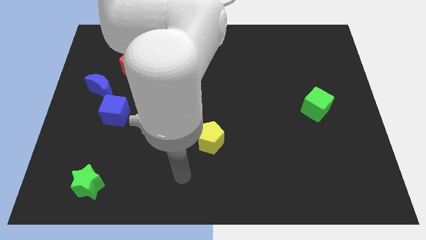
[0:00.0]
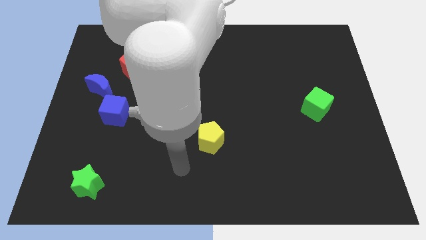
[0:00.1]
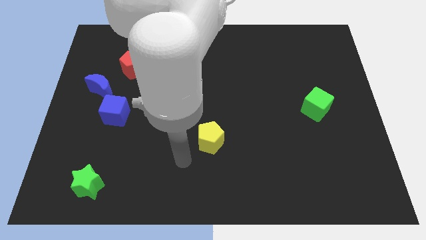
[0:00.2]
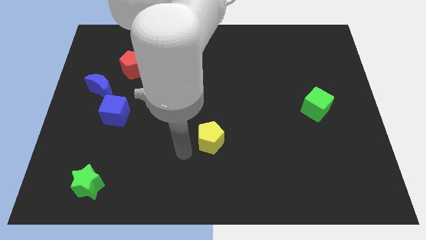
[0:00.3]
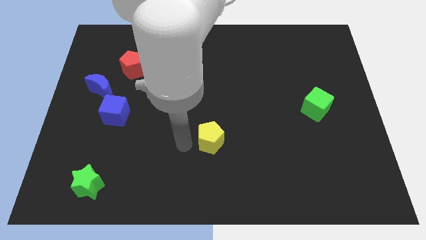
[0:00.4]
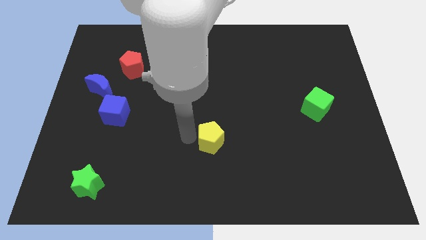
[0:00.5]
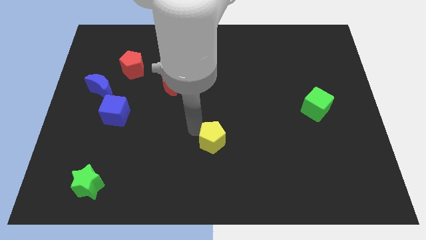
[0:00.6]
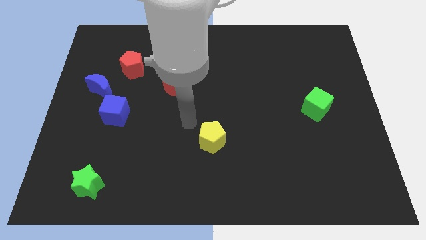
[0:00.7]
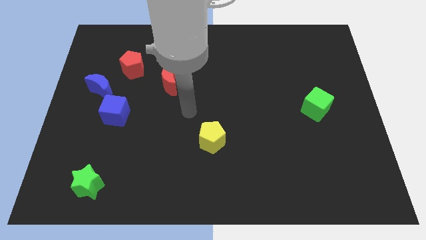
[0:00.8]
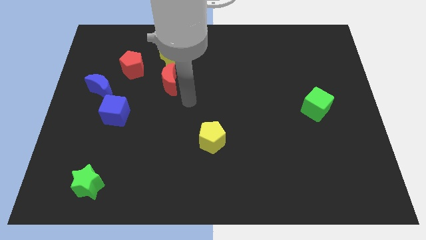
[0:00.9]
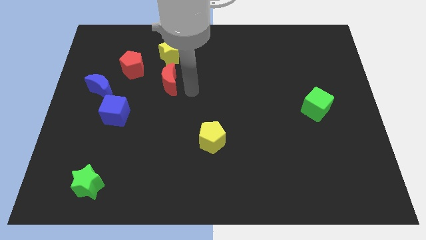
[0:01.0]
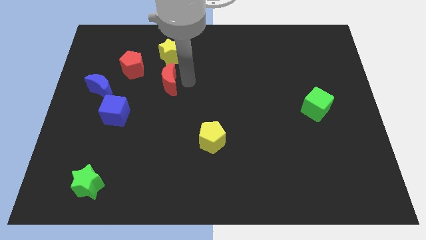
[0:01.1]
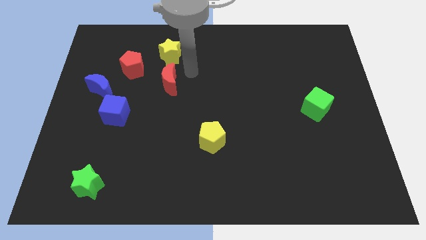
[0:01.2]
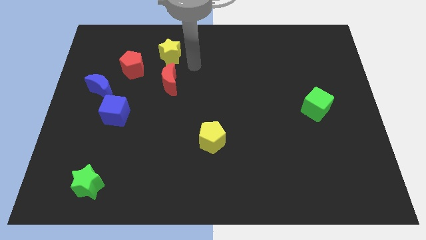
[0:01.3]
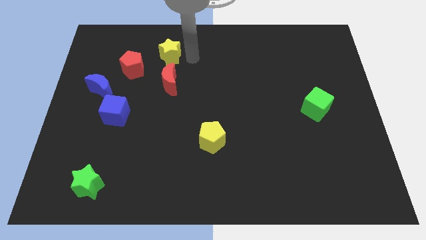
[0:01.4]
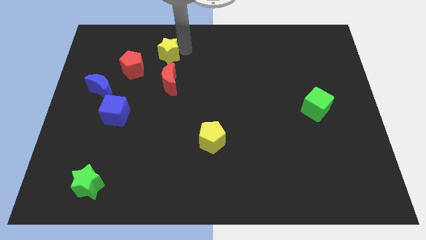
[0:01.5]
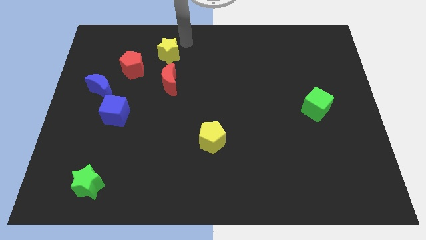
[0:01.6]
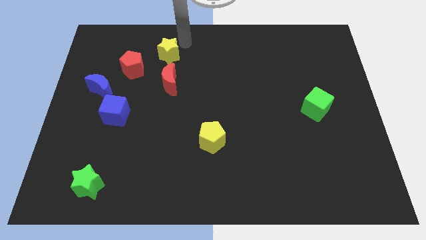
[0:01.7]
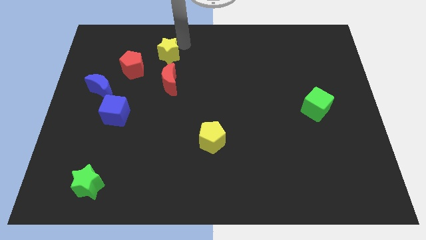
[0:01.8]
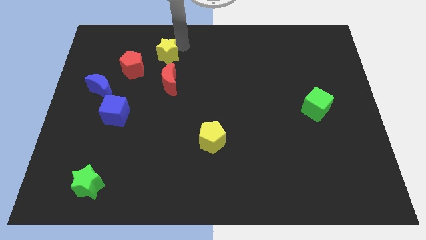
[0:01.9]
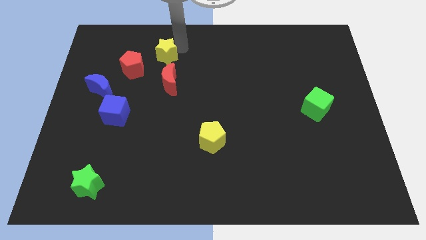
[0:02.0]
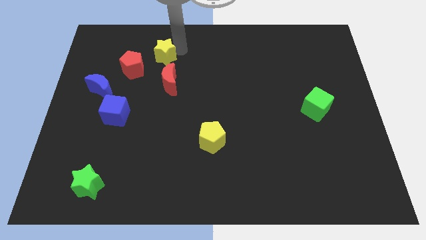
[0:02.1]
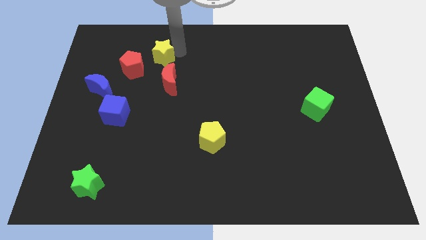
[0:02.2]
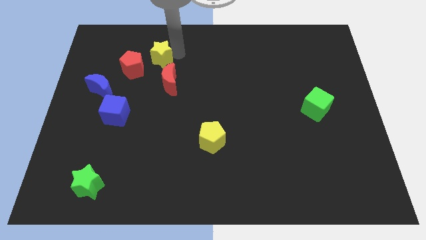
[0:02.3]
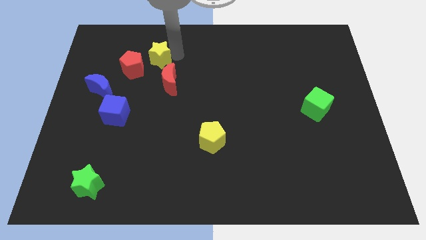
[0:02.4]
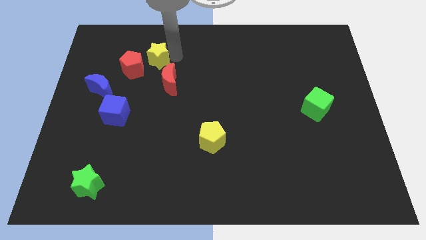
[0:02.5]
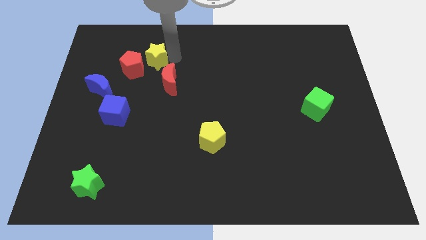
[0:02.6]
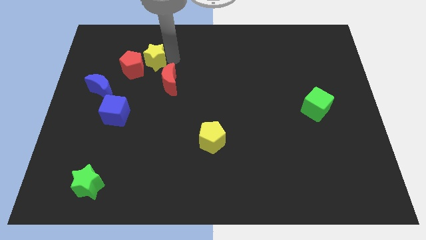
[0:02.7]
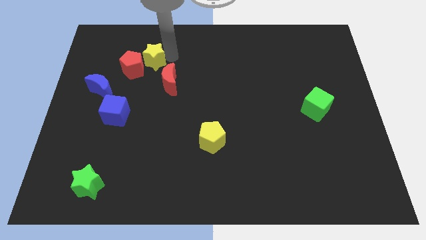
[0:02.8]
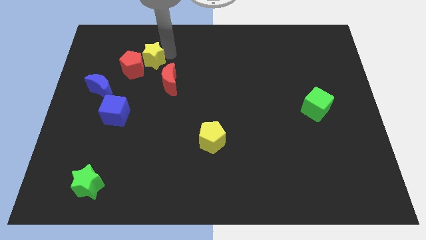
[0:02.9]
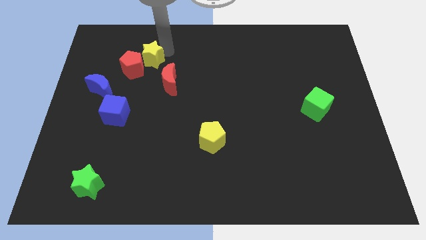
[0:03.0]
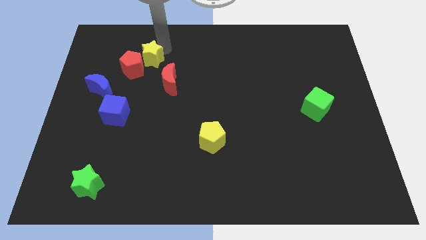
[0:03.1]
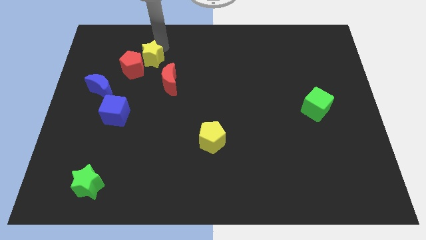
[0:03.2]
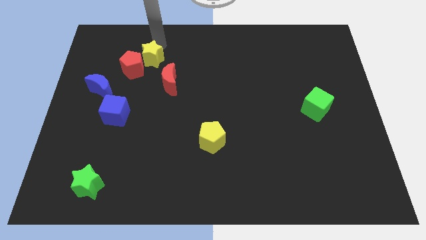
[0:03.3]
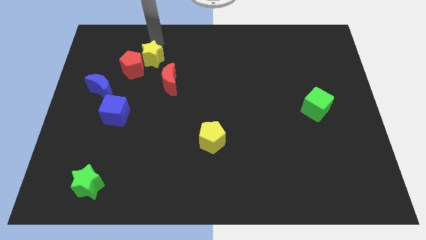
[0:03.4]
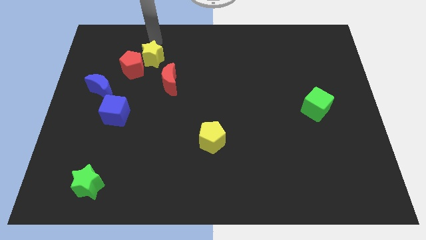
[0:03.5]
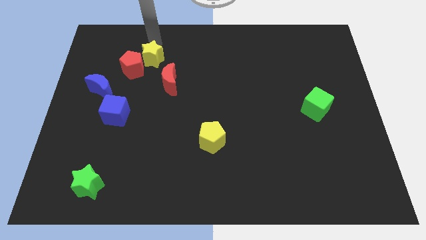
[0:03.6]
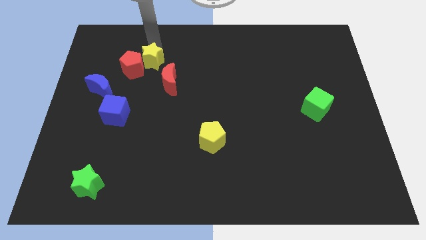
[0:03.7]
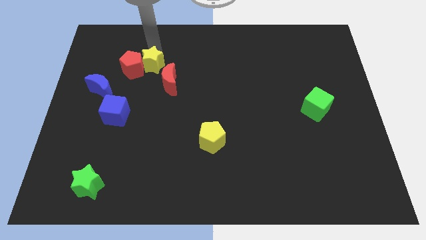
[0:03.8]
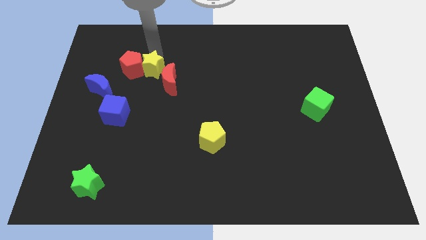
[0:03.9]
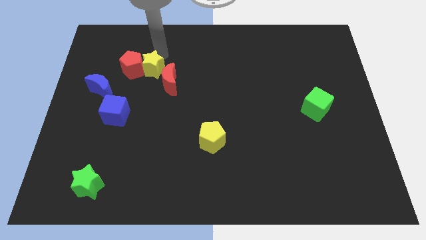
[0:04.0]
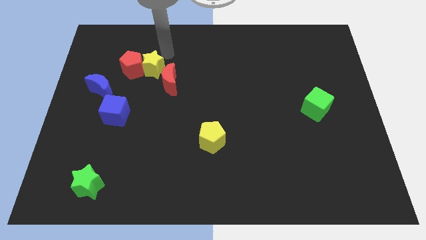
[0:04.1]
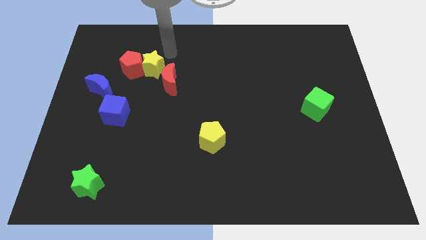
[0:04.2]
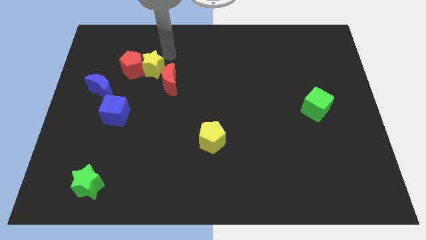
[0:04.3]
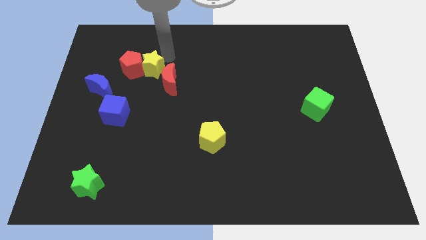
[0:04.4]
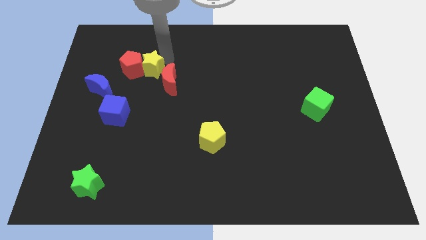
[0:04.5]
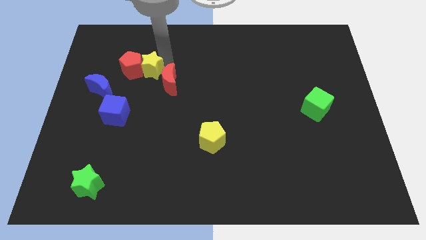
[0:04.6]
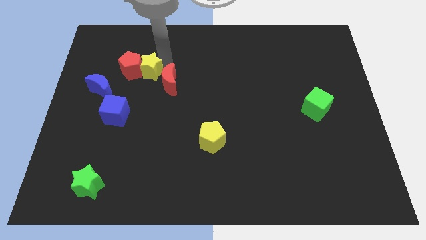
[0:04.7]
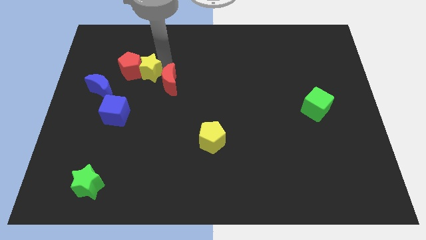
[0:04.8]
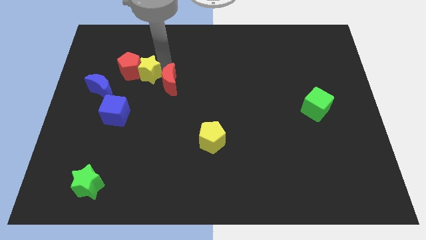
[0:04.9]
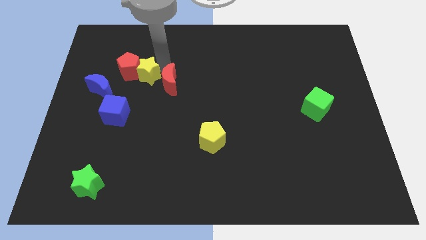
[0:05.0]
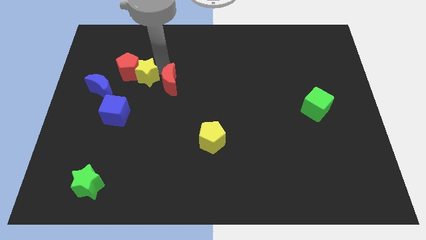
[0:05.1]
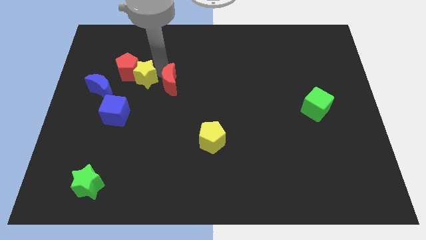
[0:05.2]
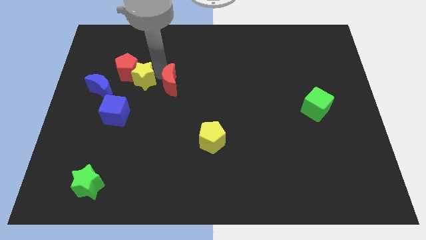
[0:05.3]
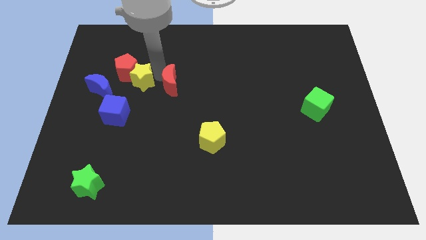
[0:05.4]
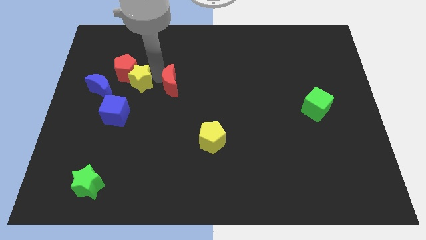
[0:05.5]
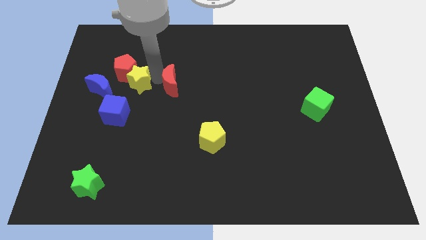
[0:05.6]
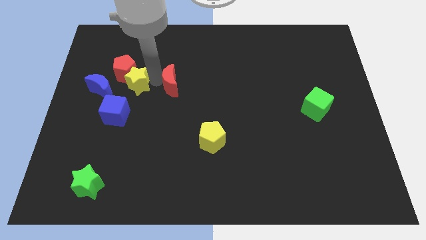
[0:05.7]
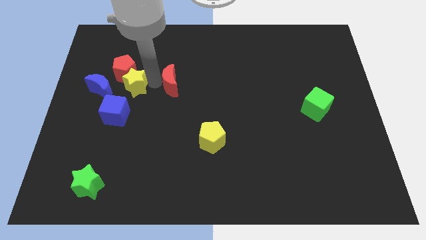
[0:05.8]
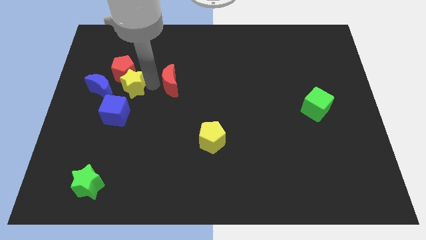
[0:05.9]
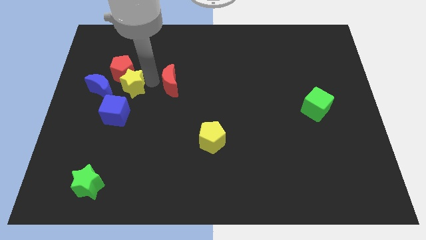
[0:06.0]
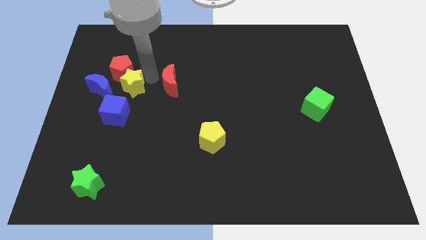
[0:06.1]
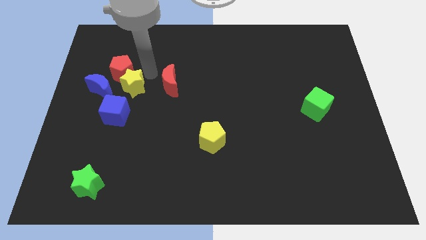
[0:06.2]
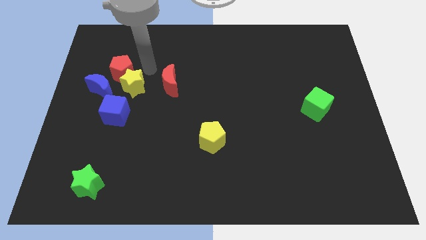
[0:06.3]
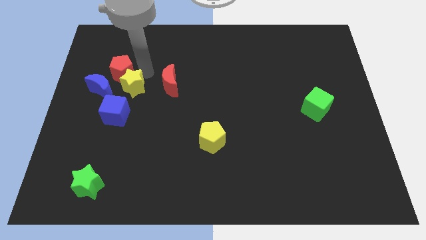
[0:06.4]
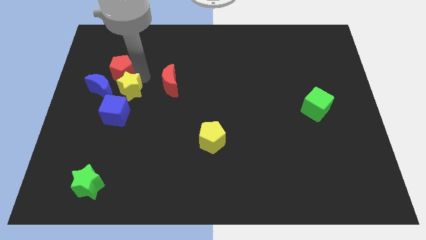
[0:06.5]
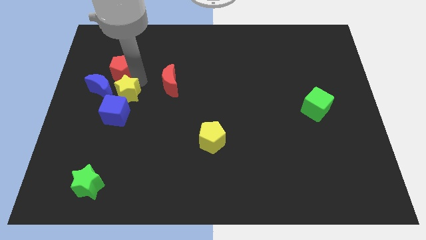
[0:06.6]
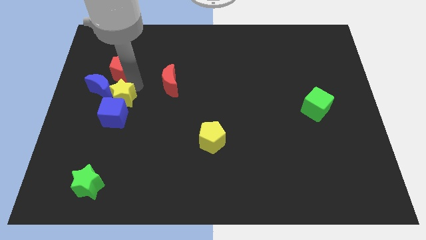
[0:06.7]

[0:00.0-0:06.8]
move the yellow star next to the blue cube
